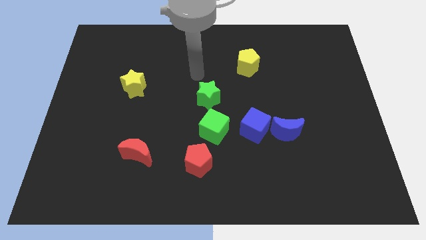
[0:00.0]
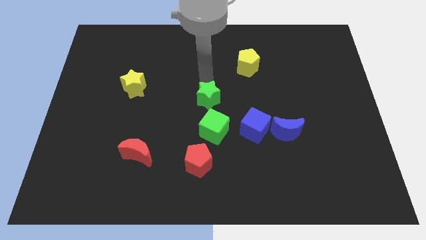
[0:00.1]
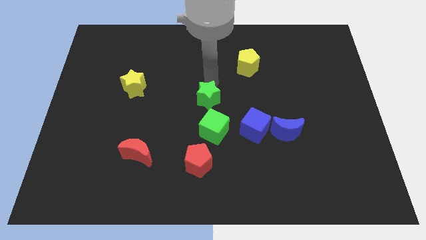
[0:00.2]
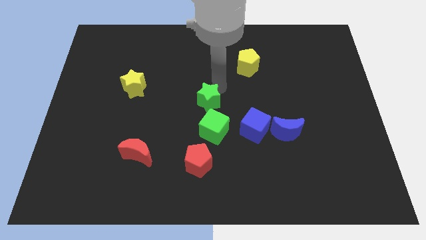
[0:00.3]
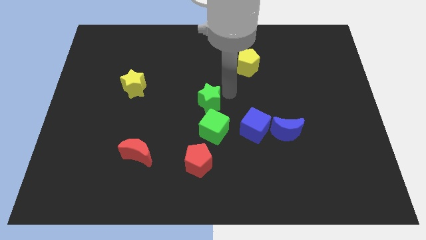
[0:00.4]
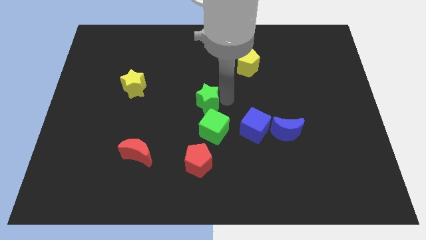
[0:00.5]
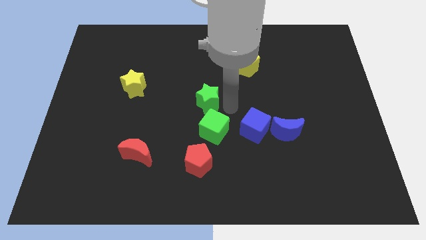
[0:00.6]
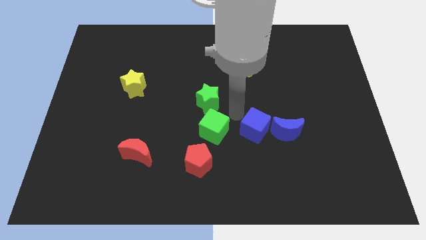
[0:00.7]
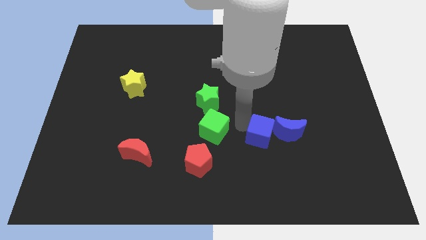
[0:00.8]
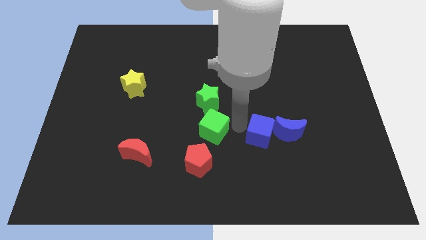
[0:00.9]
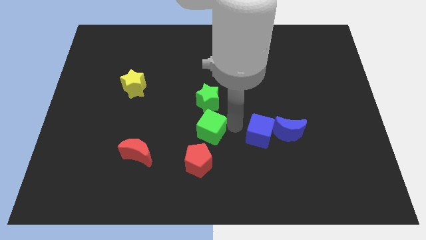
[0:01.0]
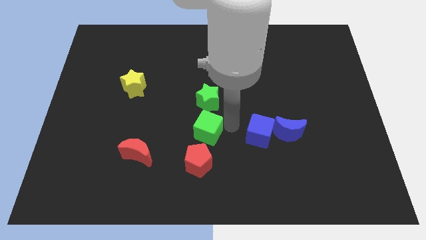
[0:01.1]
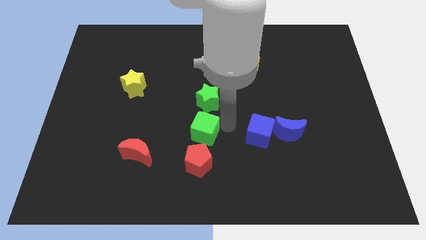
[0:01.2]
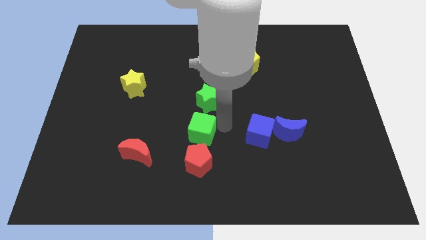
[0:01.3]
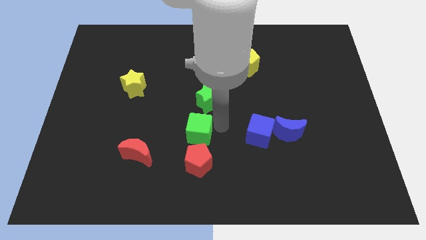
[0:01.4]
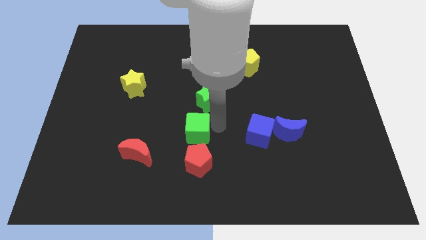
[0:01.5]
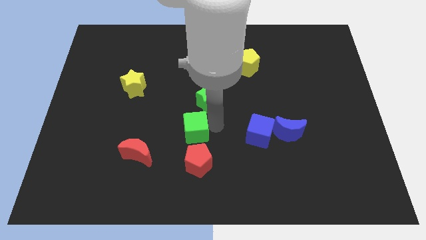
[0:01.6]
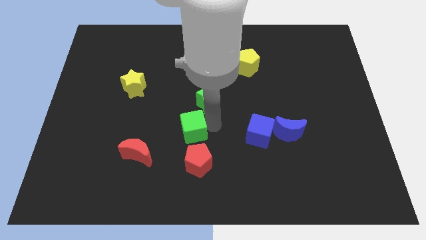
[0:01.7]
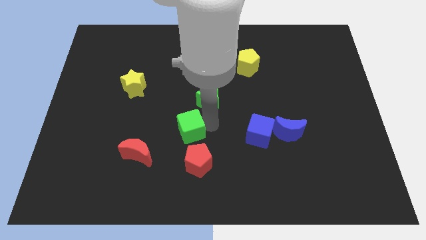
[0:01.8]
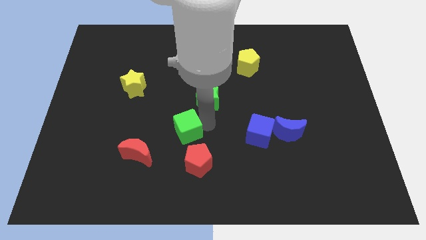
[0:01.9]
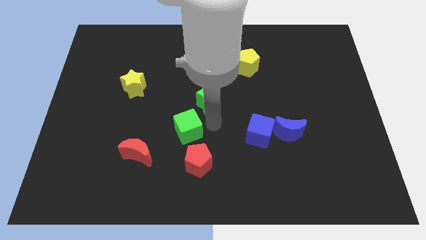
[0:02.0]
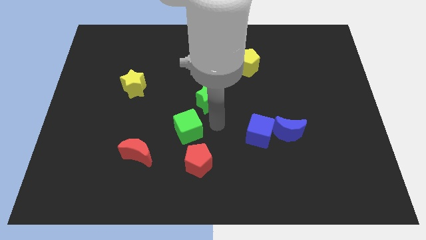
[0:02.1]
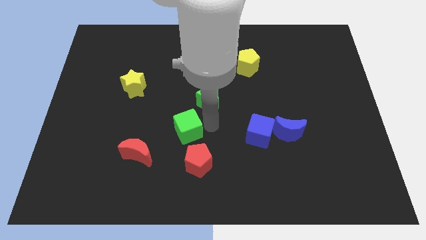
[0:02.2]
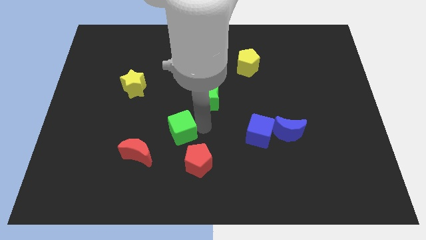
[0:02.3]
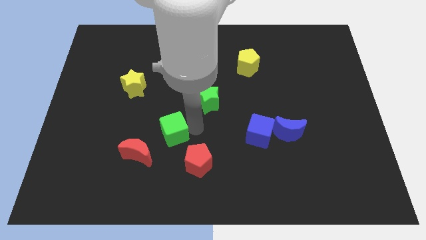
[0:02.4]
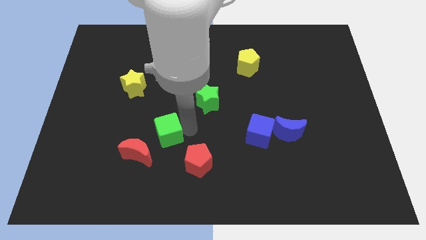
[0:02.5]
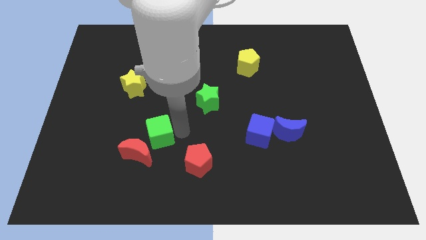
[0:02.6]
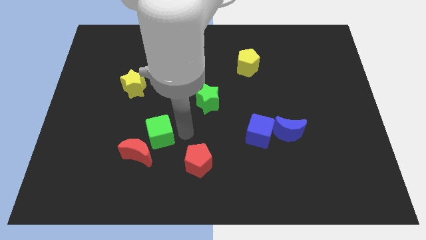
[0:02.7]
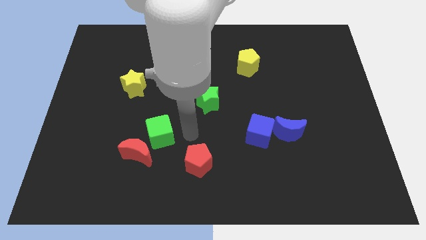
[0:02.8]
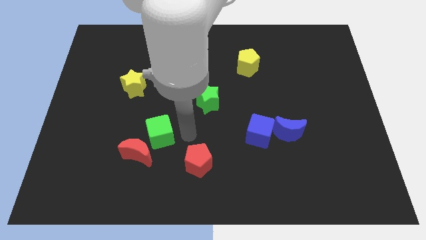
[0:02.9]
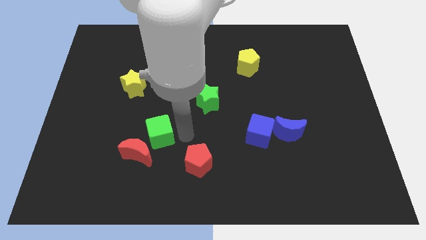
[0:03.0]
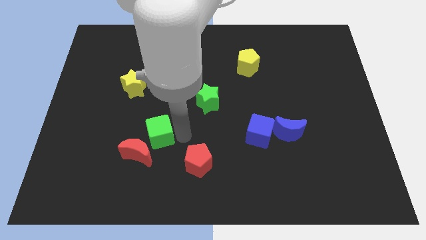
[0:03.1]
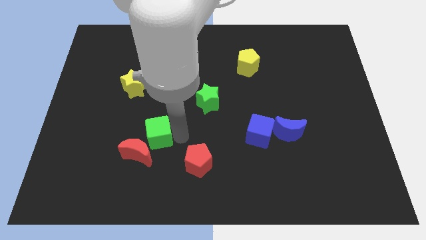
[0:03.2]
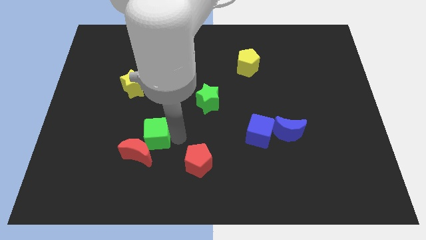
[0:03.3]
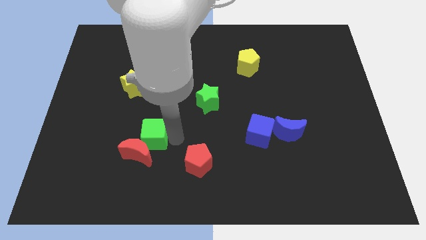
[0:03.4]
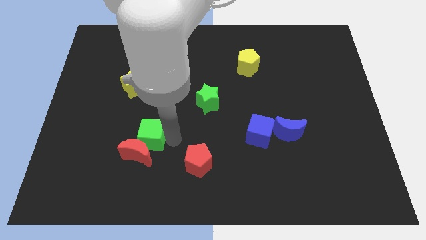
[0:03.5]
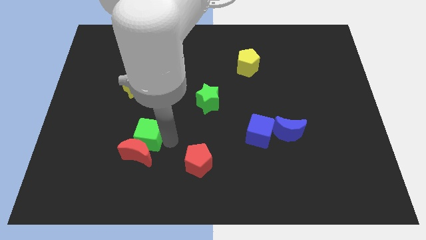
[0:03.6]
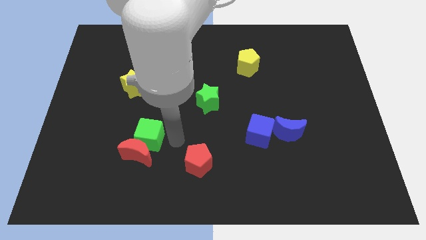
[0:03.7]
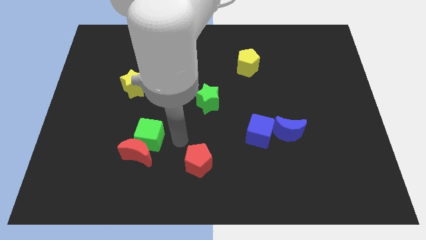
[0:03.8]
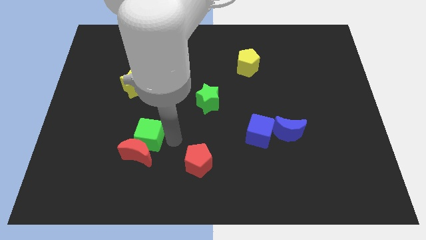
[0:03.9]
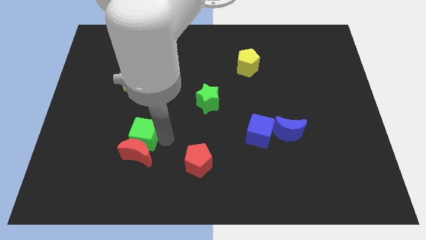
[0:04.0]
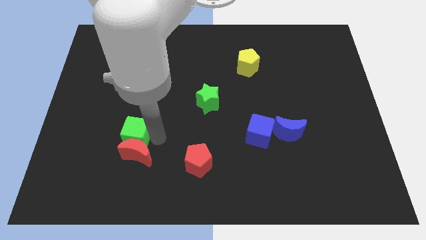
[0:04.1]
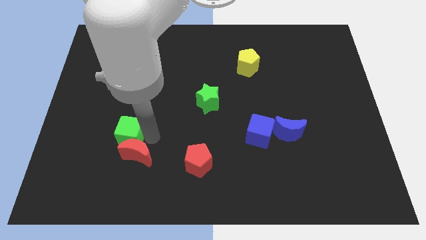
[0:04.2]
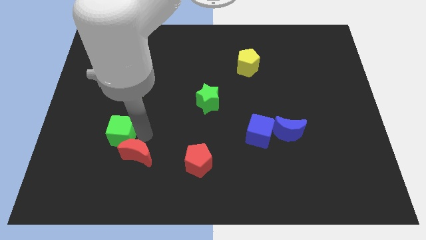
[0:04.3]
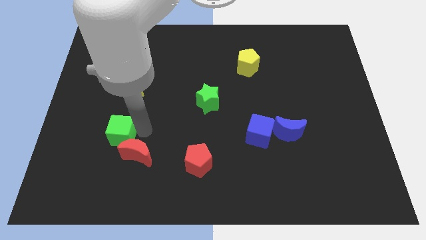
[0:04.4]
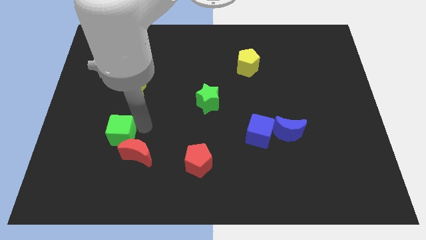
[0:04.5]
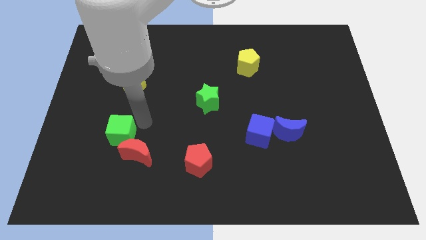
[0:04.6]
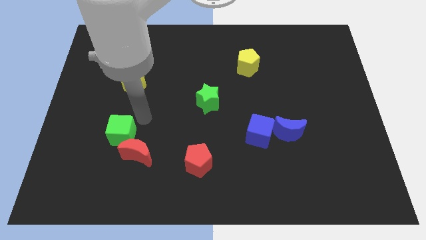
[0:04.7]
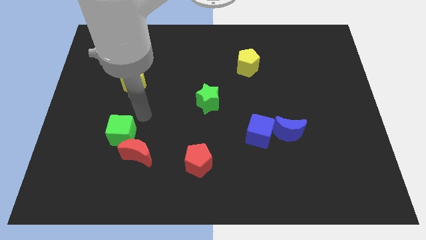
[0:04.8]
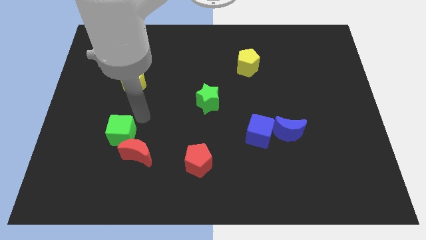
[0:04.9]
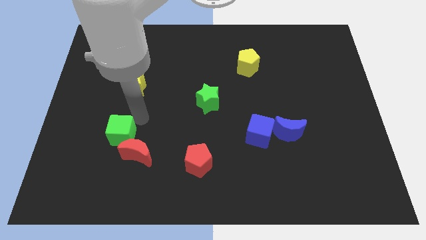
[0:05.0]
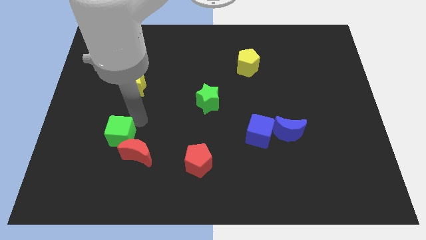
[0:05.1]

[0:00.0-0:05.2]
put the green cube to the left of the red moon

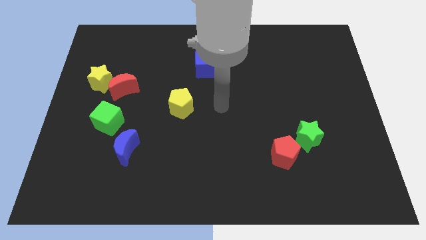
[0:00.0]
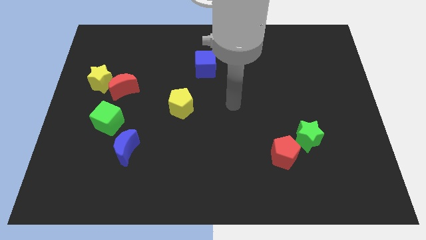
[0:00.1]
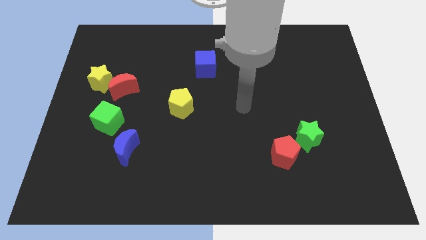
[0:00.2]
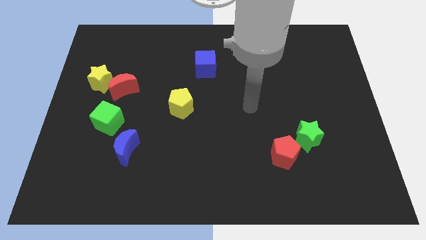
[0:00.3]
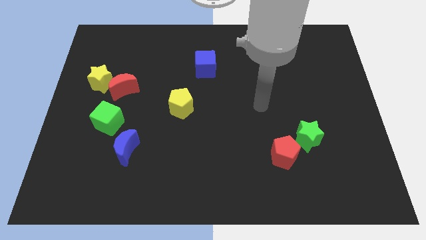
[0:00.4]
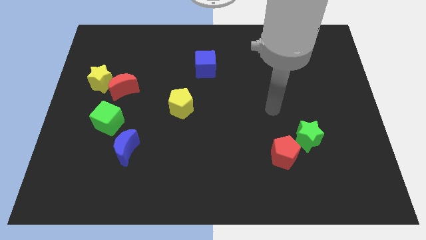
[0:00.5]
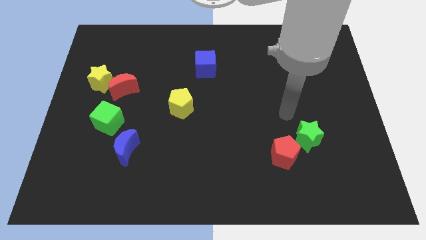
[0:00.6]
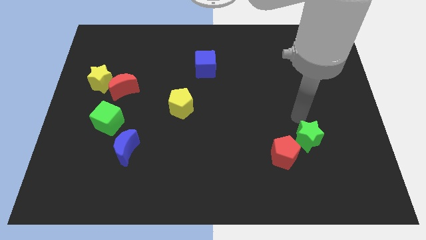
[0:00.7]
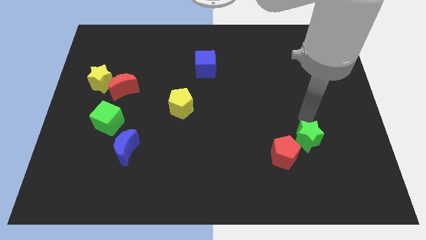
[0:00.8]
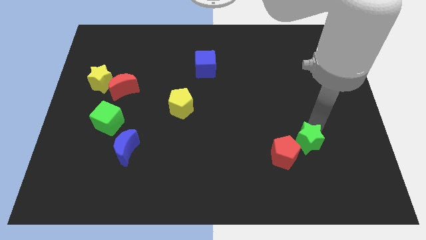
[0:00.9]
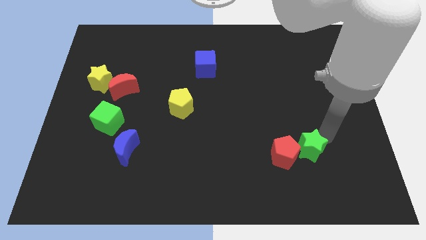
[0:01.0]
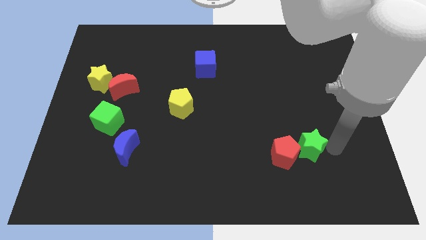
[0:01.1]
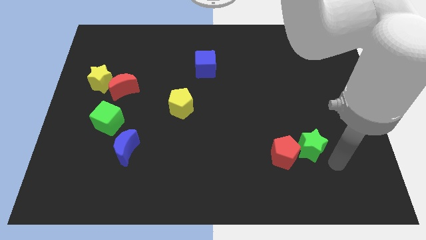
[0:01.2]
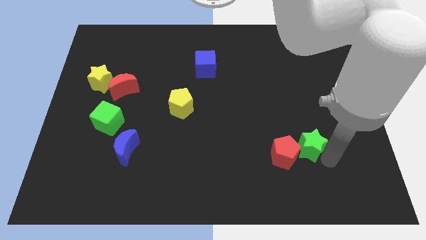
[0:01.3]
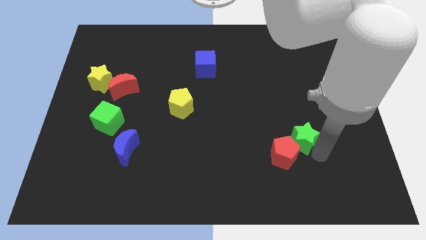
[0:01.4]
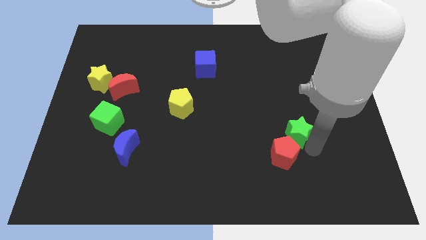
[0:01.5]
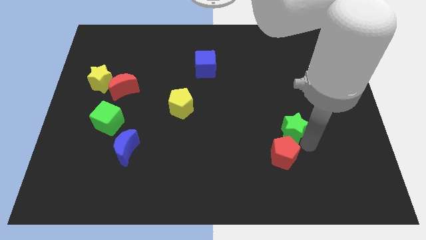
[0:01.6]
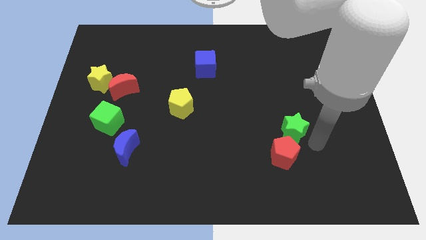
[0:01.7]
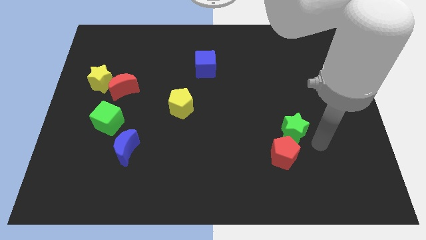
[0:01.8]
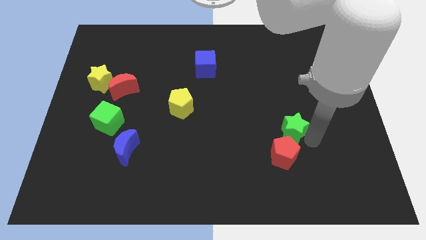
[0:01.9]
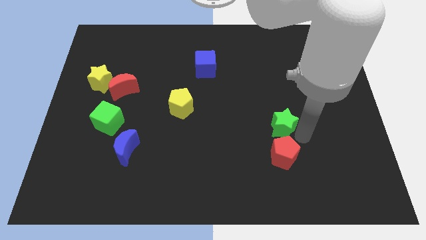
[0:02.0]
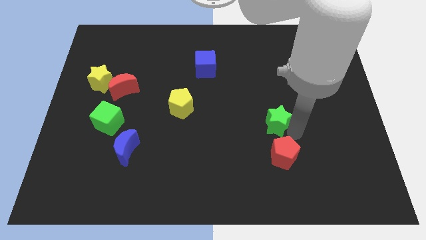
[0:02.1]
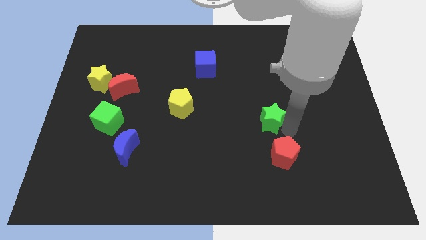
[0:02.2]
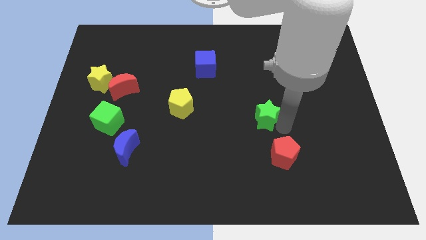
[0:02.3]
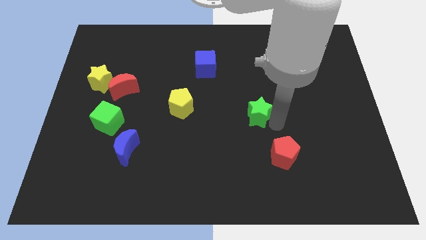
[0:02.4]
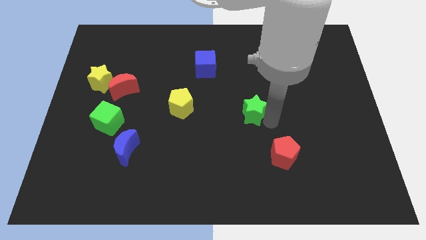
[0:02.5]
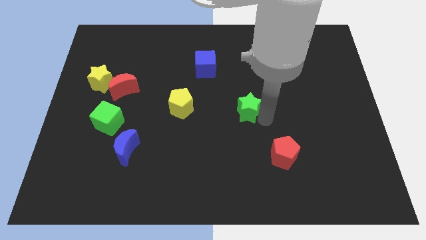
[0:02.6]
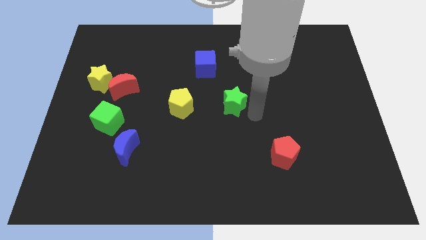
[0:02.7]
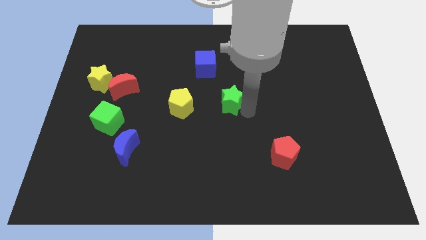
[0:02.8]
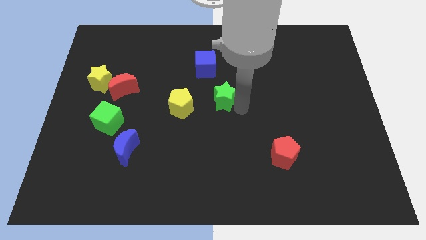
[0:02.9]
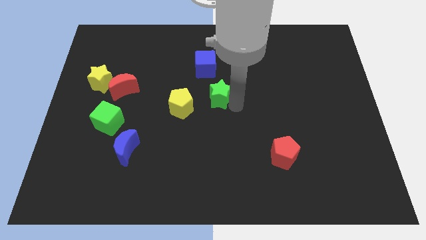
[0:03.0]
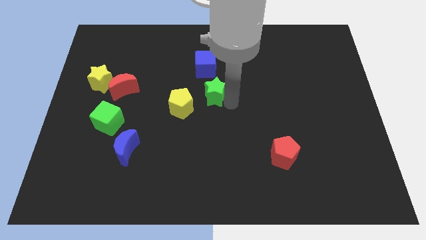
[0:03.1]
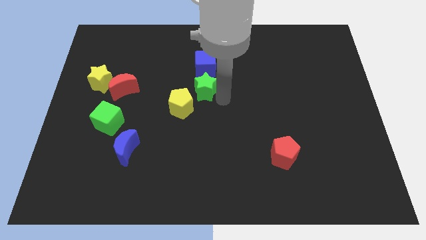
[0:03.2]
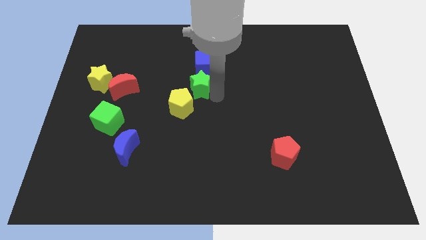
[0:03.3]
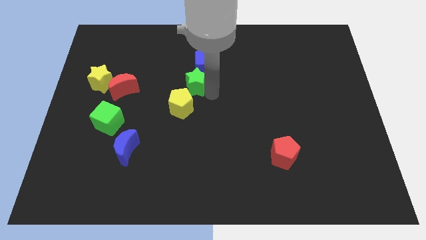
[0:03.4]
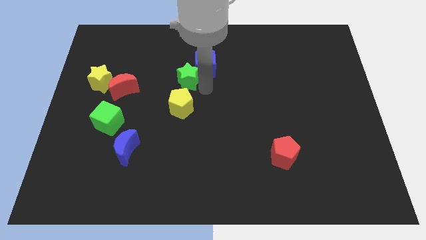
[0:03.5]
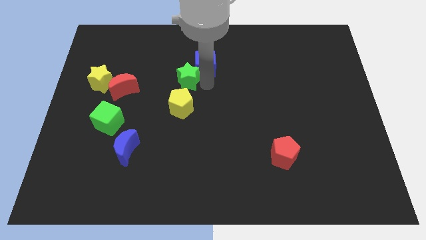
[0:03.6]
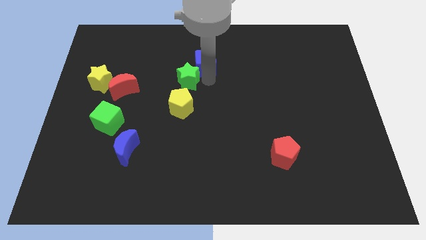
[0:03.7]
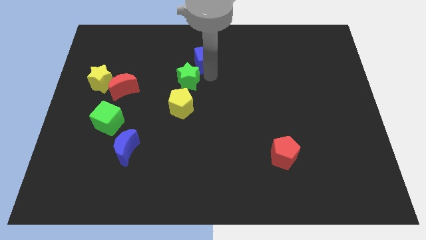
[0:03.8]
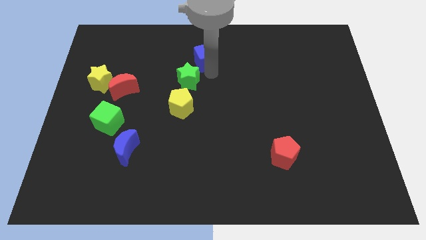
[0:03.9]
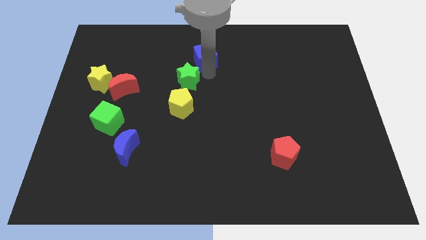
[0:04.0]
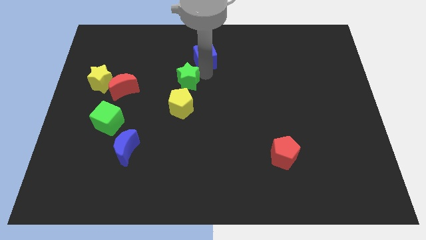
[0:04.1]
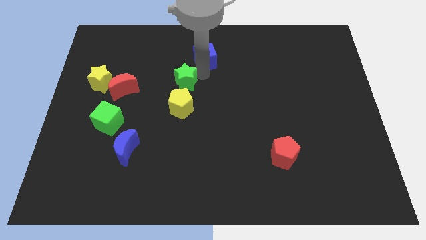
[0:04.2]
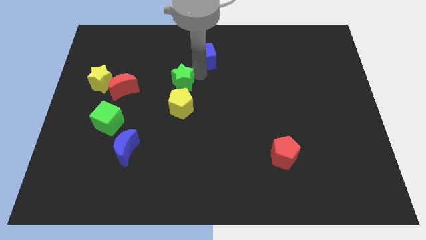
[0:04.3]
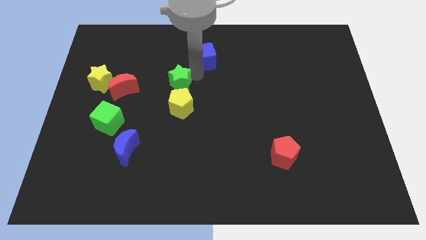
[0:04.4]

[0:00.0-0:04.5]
move the green star diagonally up and to the left of the yellow pentagon
